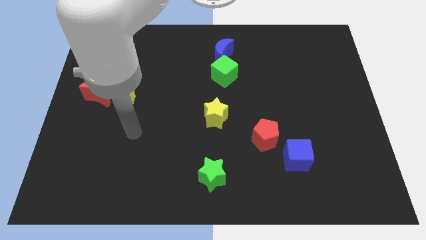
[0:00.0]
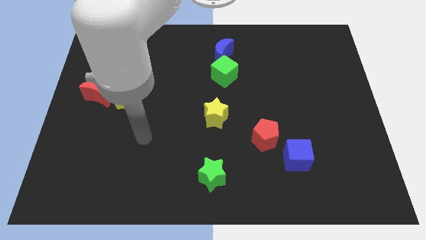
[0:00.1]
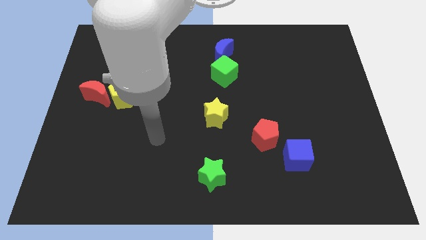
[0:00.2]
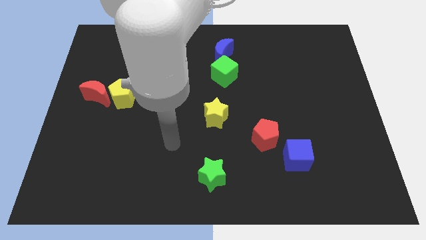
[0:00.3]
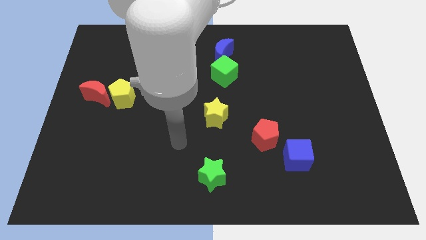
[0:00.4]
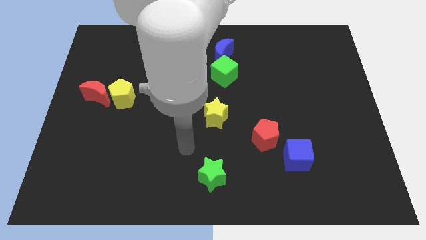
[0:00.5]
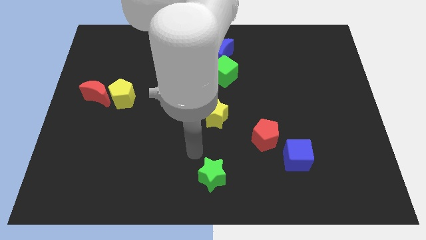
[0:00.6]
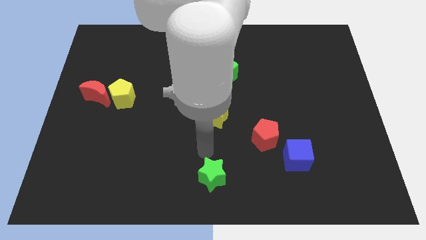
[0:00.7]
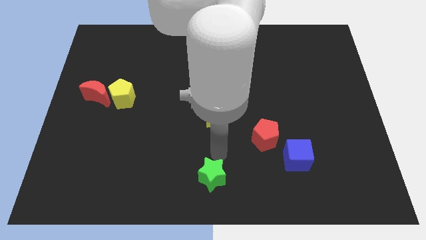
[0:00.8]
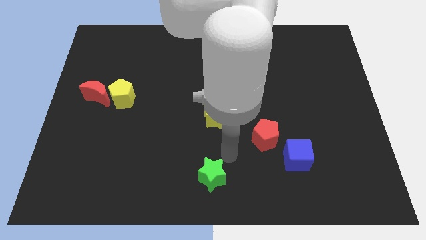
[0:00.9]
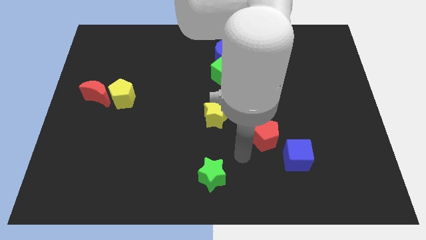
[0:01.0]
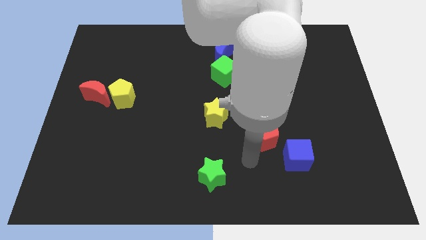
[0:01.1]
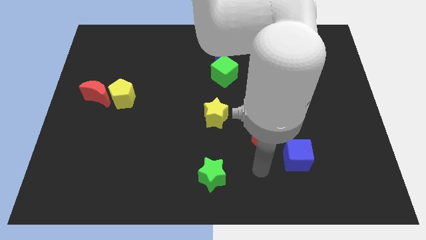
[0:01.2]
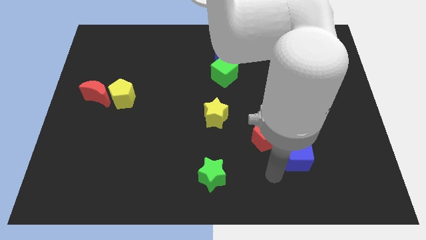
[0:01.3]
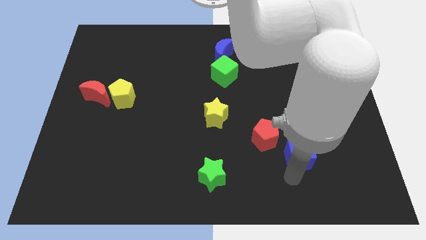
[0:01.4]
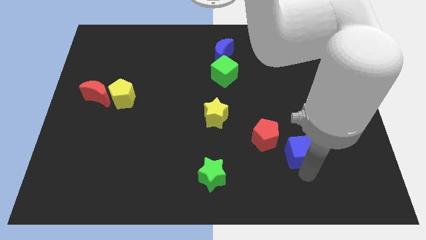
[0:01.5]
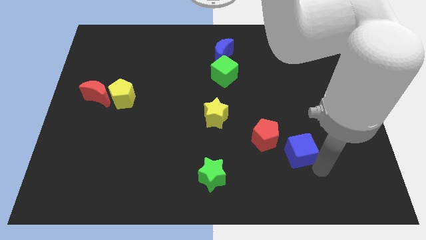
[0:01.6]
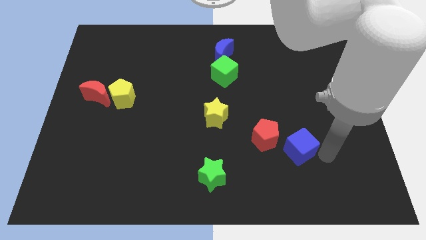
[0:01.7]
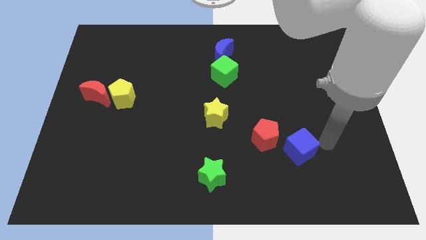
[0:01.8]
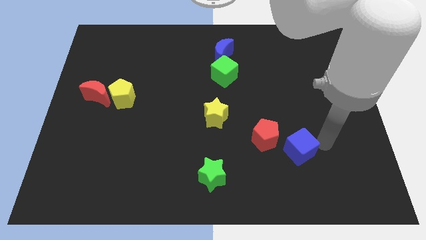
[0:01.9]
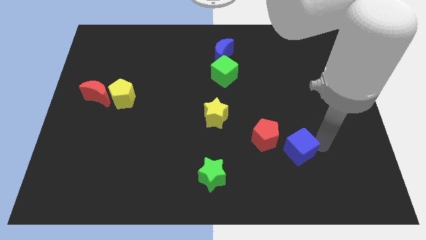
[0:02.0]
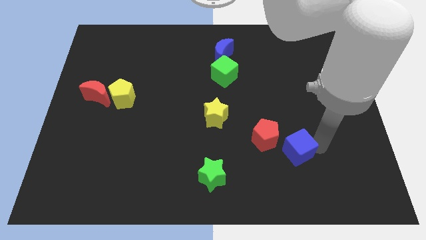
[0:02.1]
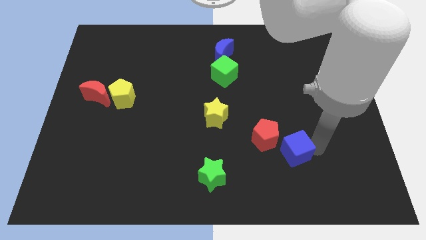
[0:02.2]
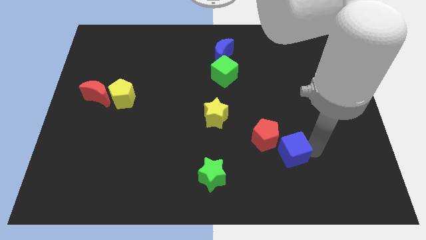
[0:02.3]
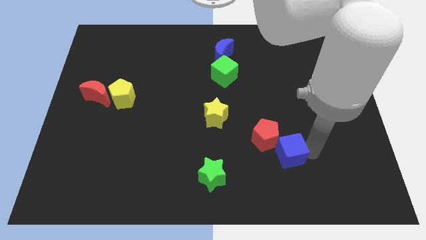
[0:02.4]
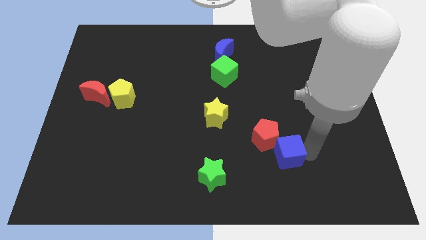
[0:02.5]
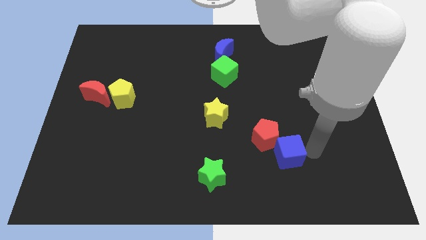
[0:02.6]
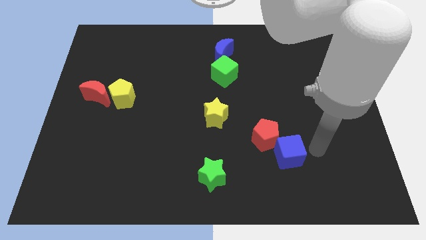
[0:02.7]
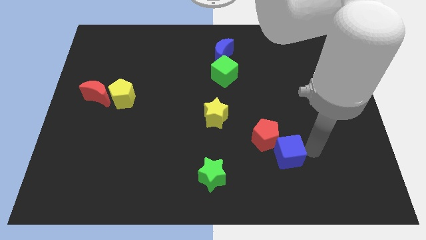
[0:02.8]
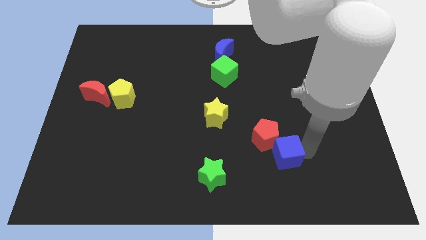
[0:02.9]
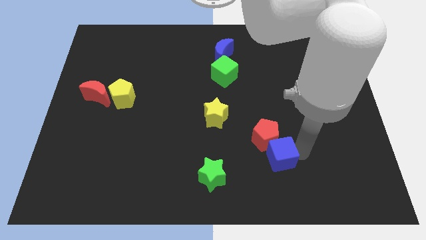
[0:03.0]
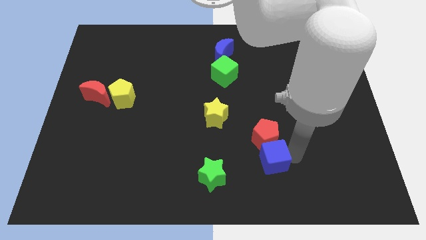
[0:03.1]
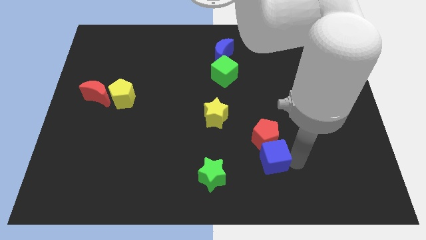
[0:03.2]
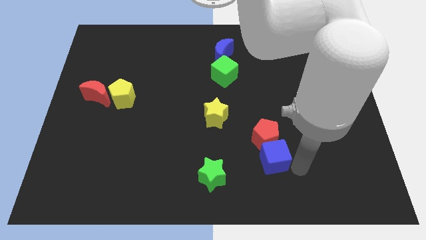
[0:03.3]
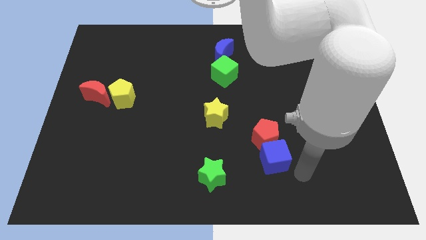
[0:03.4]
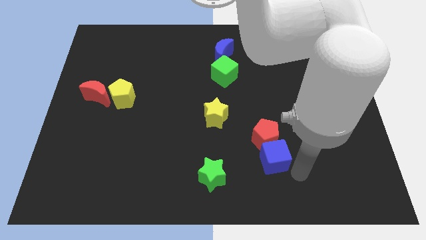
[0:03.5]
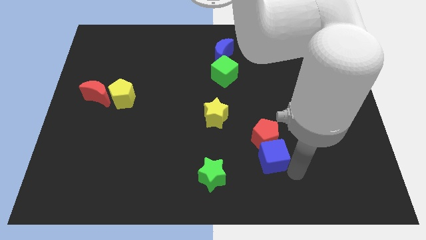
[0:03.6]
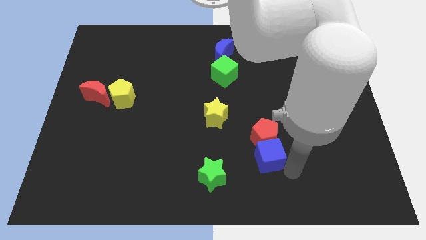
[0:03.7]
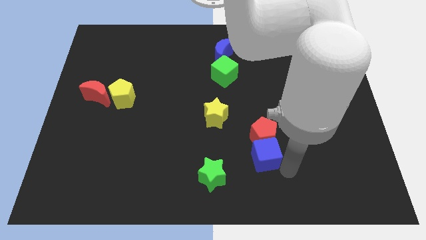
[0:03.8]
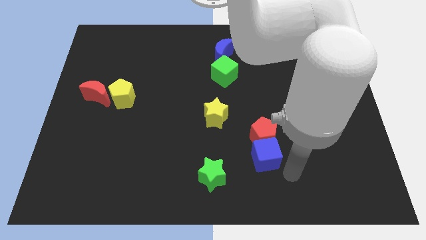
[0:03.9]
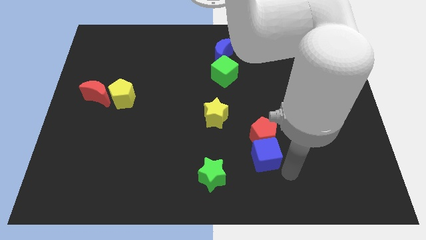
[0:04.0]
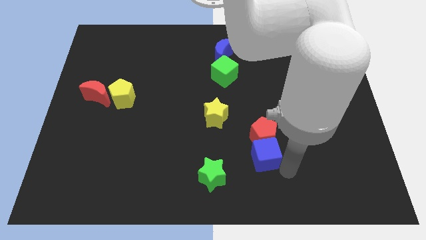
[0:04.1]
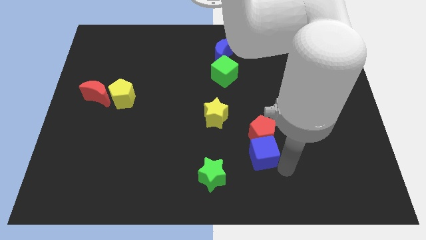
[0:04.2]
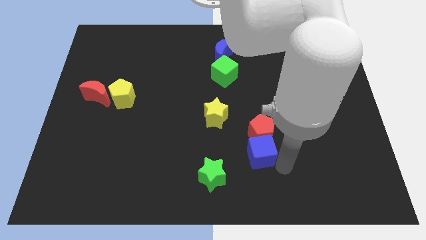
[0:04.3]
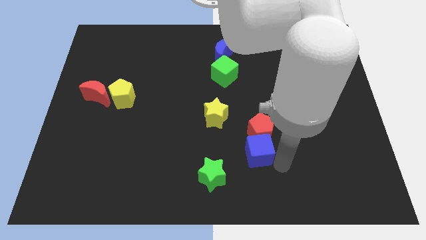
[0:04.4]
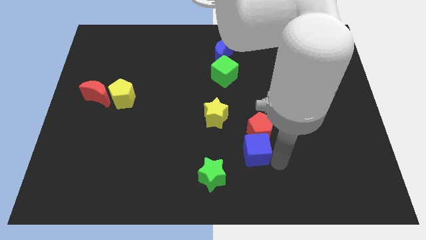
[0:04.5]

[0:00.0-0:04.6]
move the blue cube to the bottom right side of the yellow star

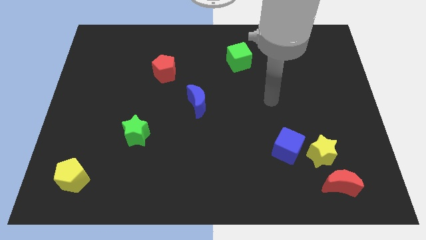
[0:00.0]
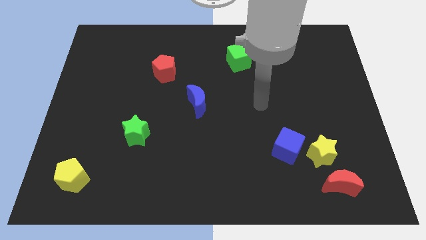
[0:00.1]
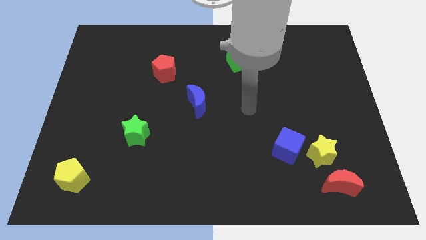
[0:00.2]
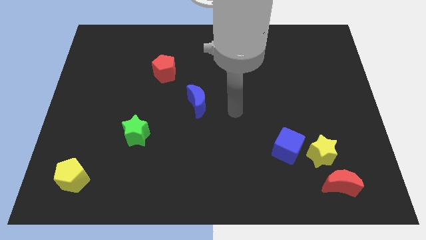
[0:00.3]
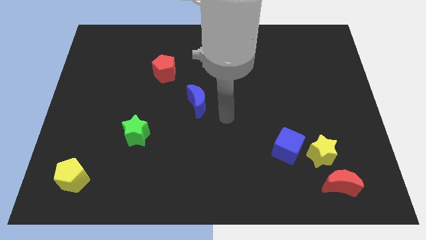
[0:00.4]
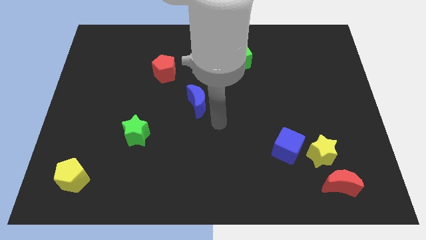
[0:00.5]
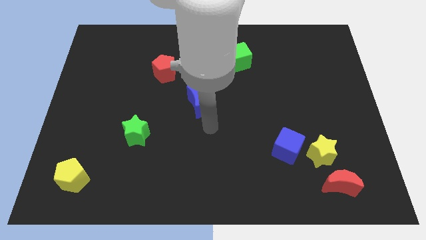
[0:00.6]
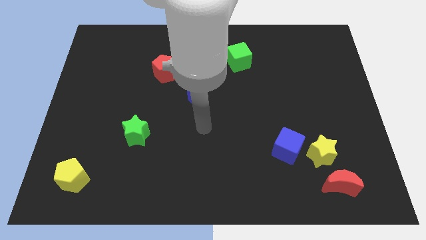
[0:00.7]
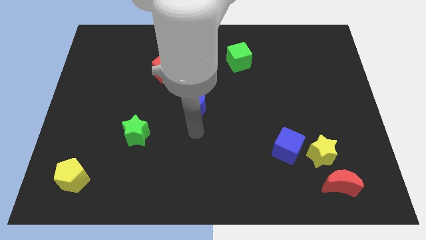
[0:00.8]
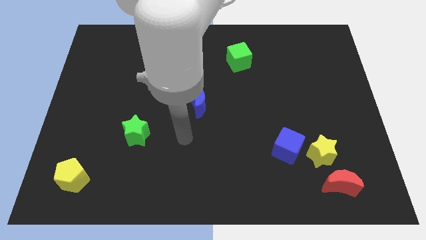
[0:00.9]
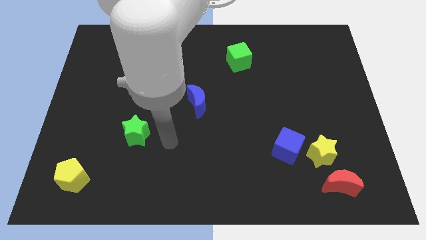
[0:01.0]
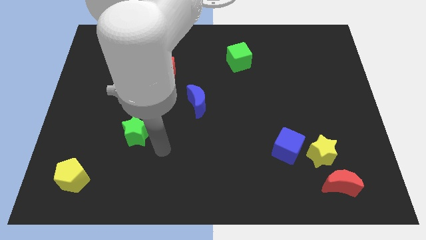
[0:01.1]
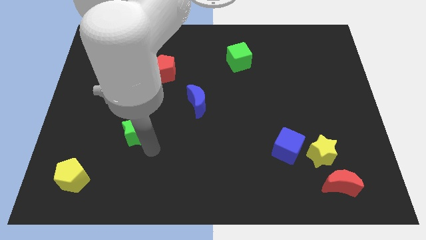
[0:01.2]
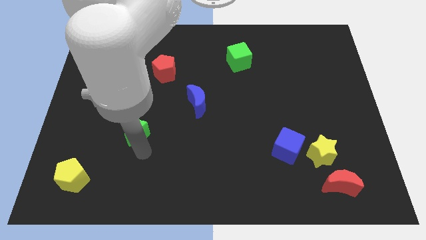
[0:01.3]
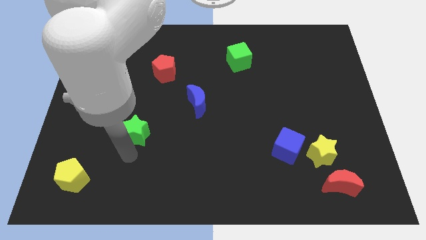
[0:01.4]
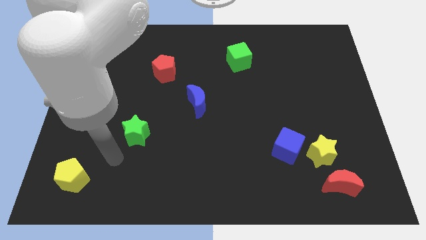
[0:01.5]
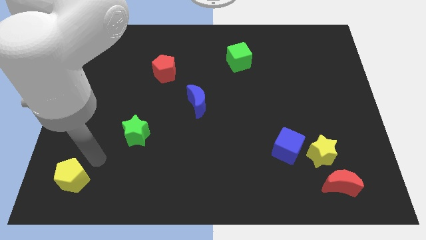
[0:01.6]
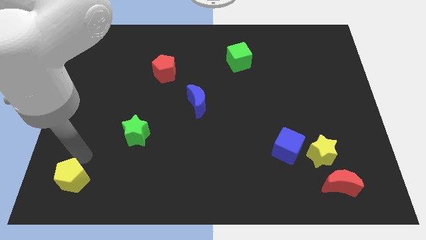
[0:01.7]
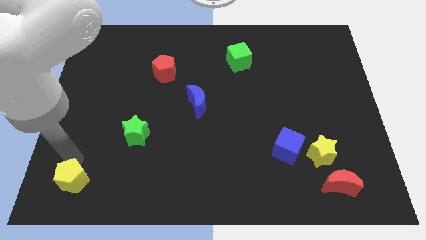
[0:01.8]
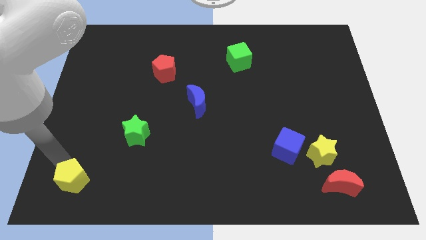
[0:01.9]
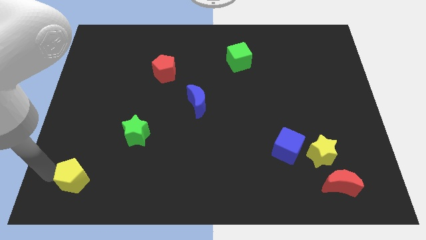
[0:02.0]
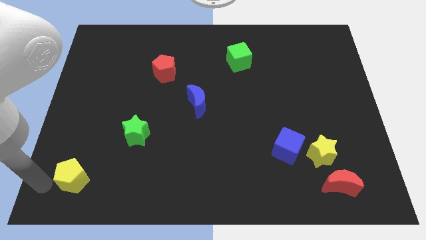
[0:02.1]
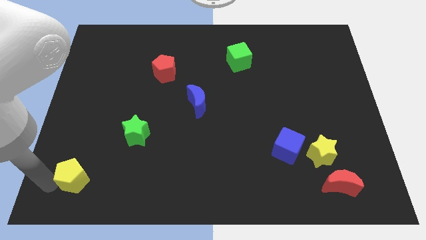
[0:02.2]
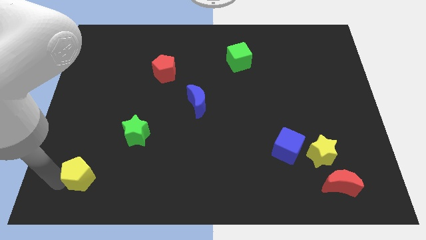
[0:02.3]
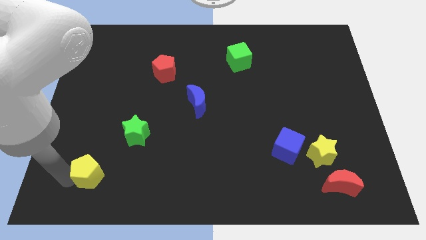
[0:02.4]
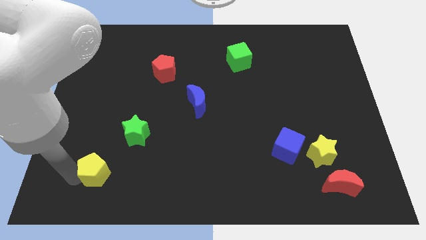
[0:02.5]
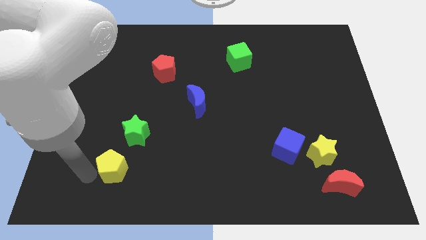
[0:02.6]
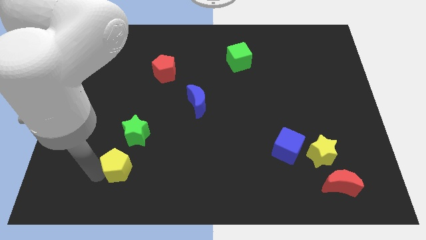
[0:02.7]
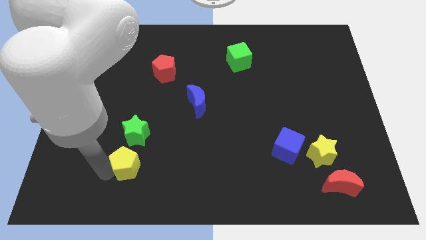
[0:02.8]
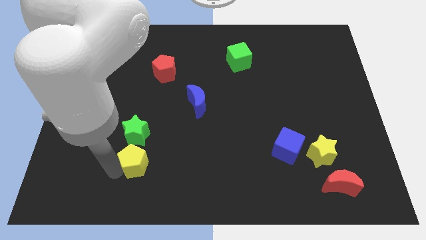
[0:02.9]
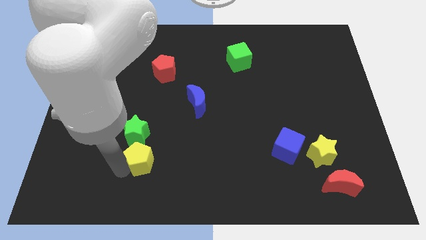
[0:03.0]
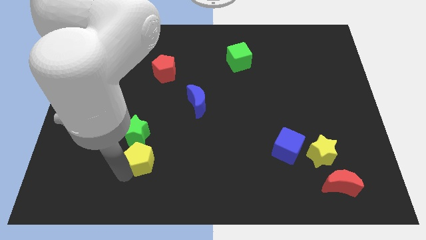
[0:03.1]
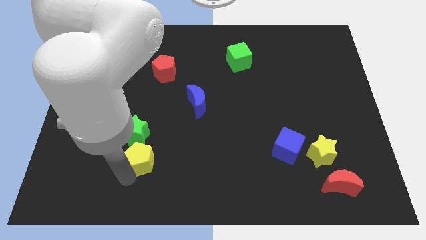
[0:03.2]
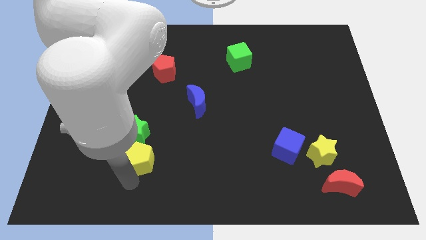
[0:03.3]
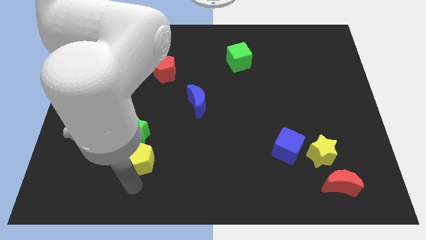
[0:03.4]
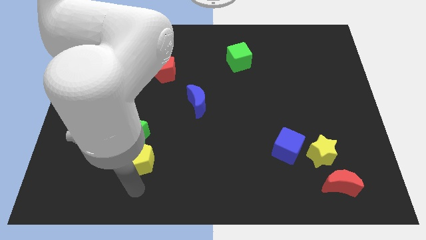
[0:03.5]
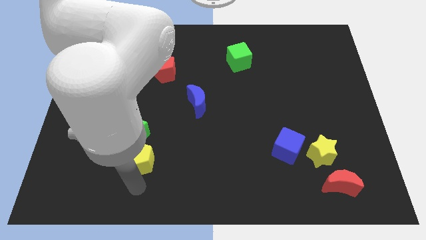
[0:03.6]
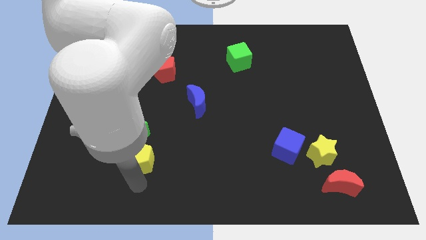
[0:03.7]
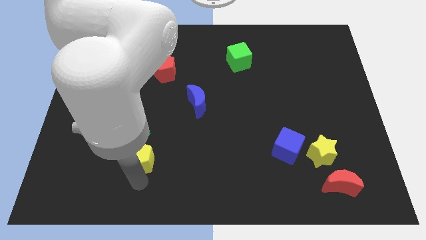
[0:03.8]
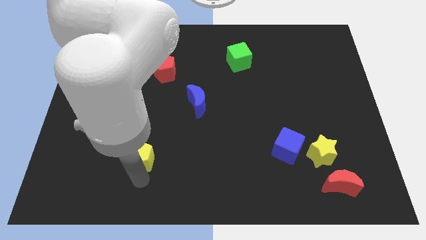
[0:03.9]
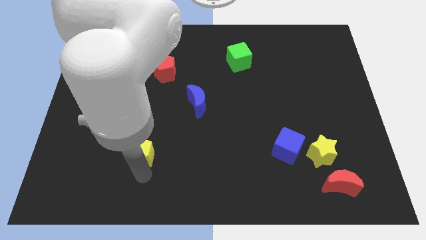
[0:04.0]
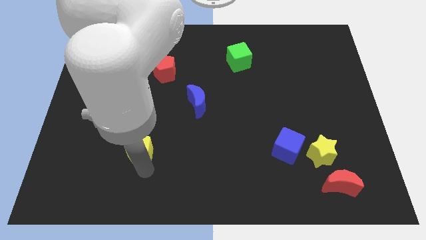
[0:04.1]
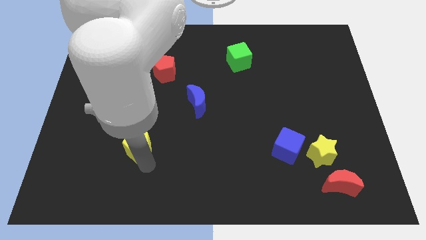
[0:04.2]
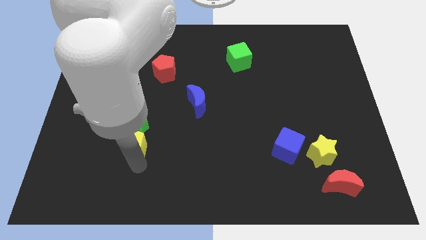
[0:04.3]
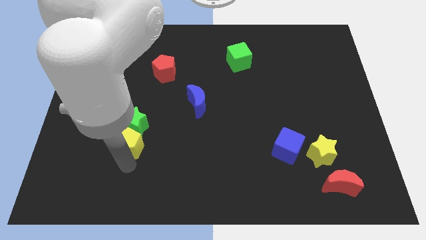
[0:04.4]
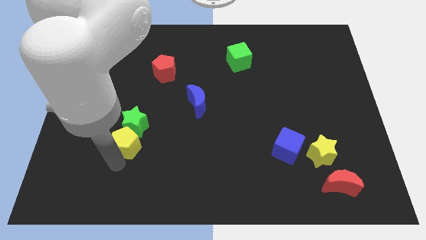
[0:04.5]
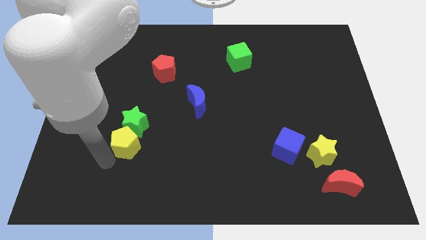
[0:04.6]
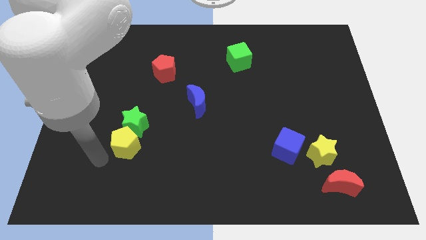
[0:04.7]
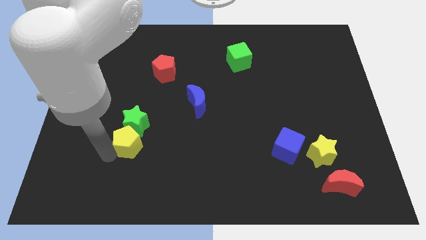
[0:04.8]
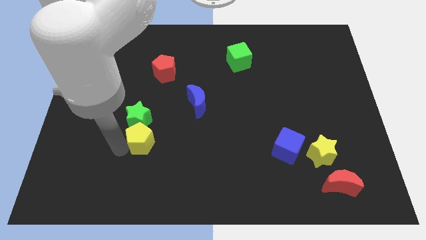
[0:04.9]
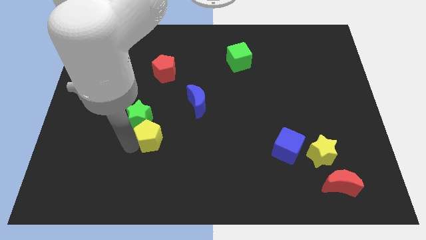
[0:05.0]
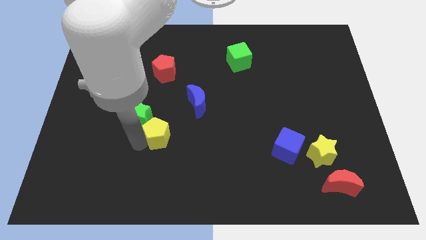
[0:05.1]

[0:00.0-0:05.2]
move the yellow pentagon to the bottom left of the blue moon
